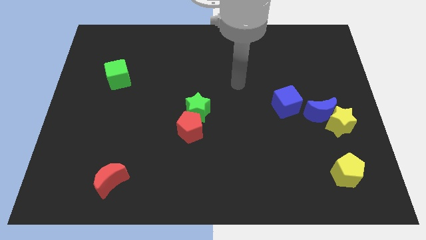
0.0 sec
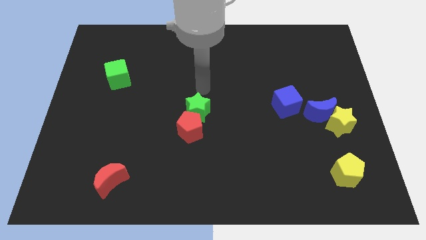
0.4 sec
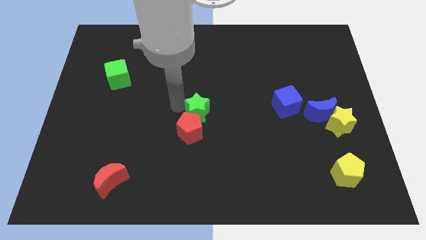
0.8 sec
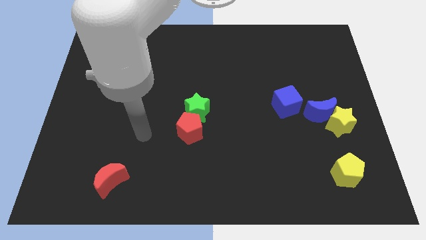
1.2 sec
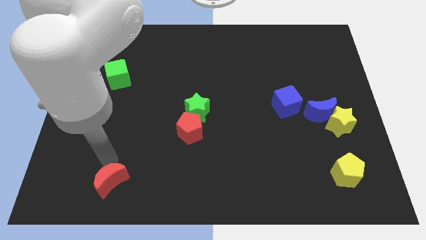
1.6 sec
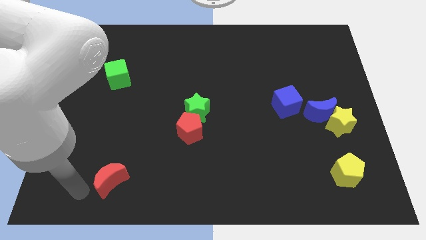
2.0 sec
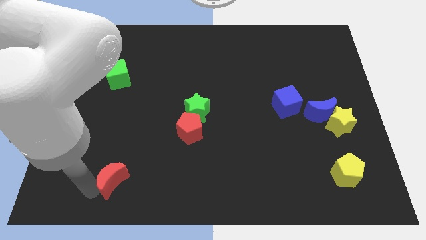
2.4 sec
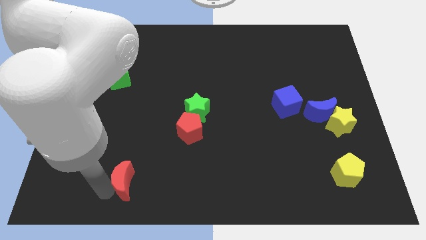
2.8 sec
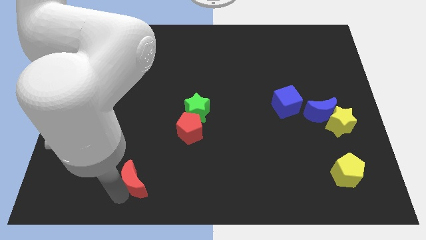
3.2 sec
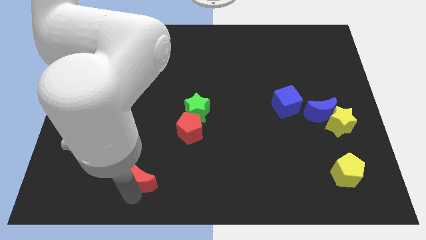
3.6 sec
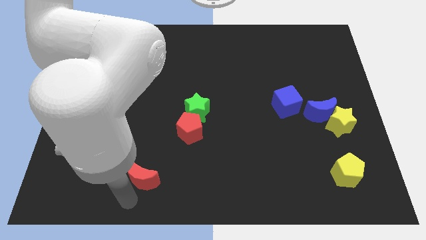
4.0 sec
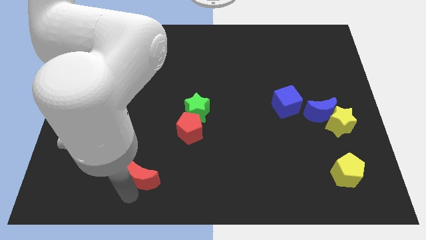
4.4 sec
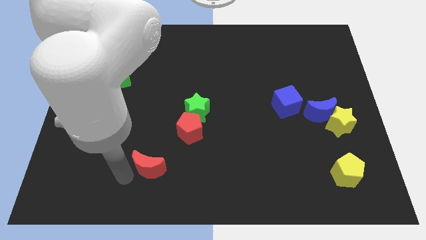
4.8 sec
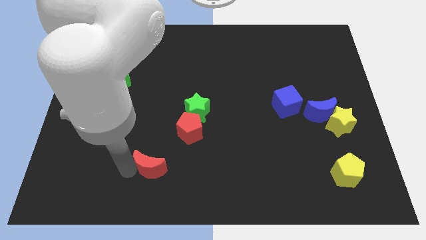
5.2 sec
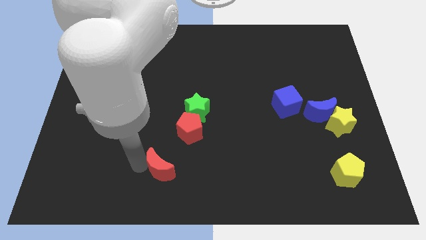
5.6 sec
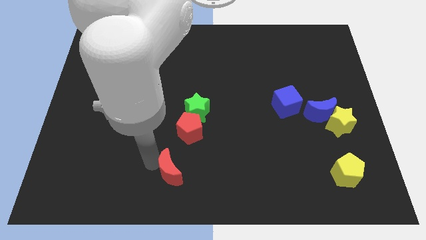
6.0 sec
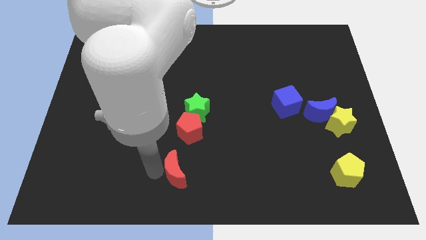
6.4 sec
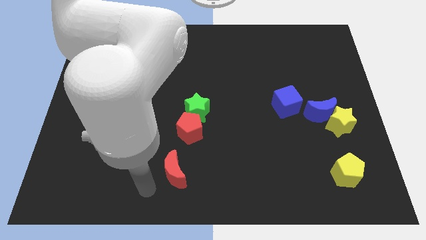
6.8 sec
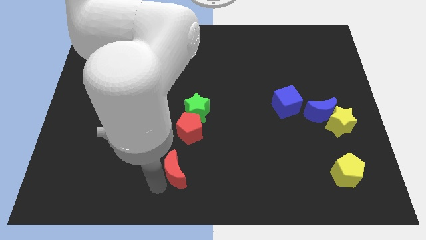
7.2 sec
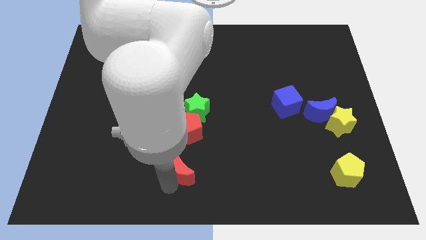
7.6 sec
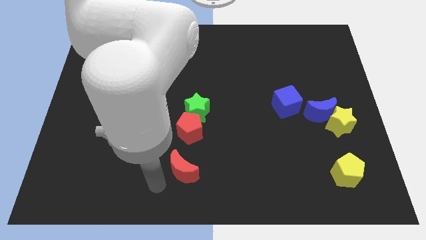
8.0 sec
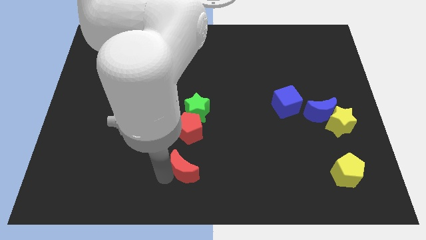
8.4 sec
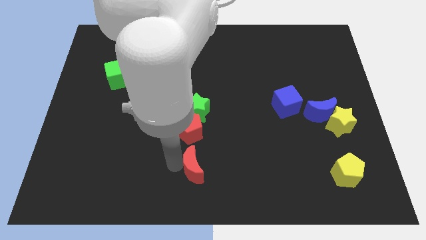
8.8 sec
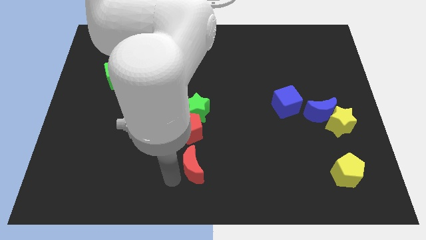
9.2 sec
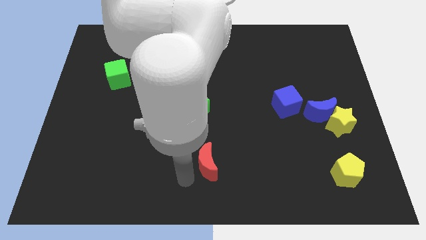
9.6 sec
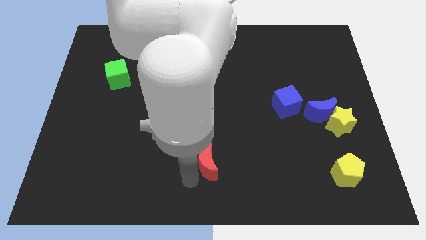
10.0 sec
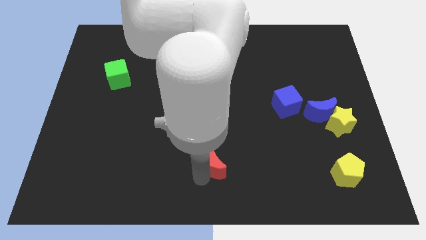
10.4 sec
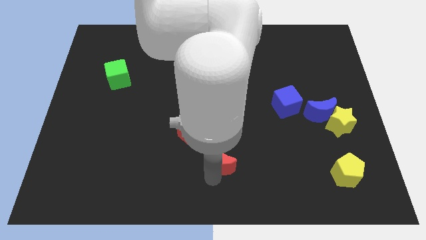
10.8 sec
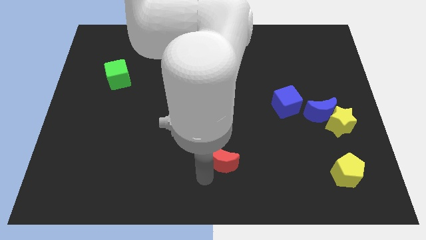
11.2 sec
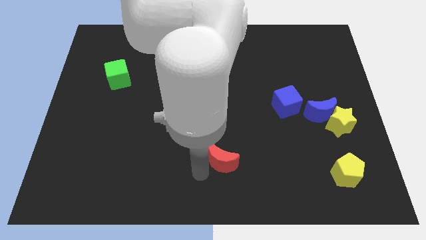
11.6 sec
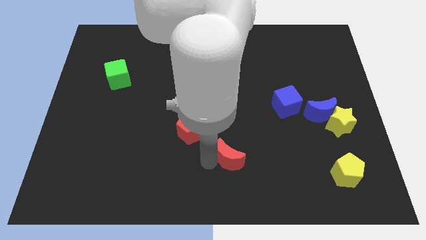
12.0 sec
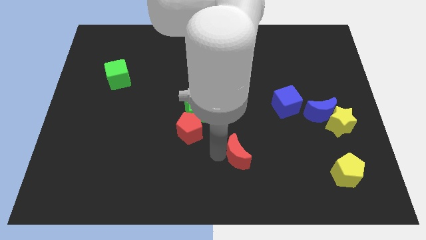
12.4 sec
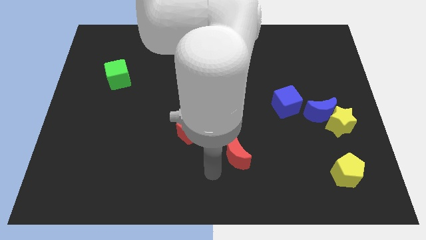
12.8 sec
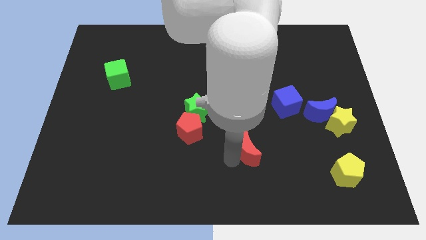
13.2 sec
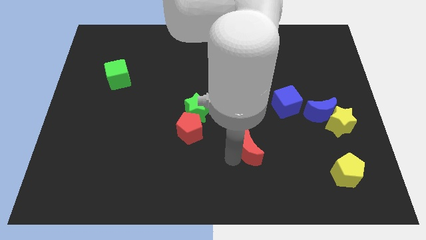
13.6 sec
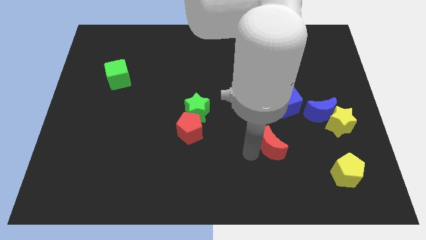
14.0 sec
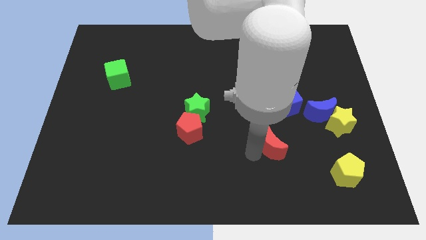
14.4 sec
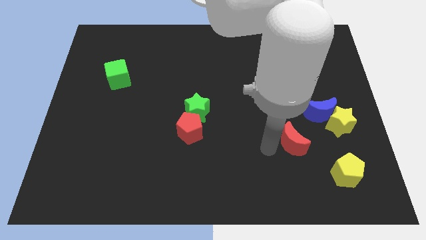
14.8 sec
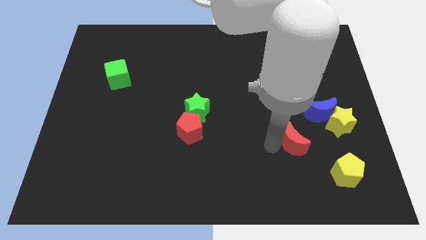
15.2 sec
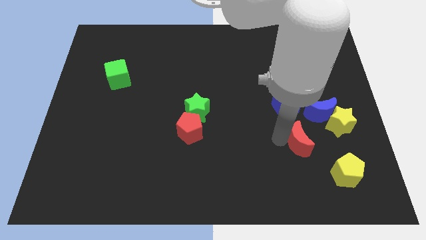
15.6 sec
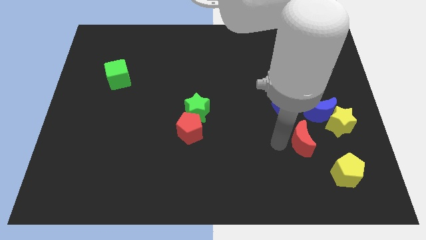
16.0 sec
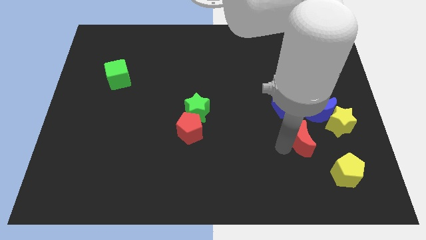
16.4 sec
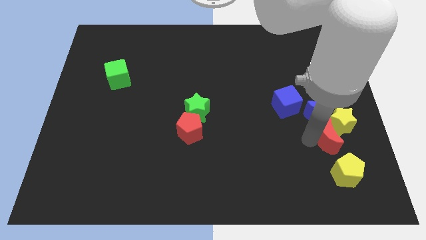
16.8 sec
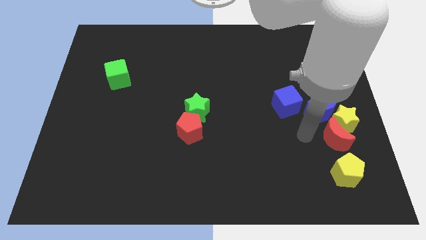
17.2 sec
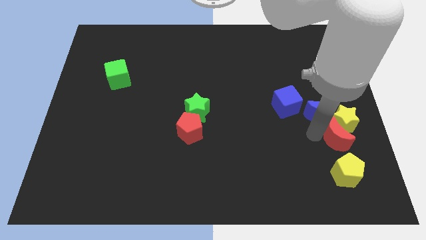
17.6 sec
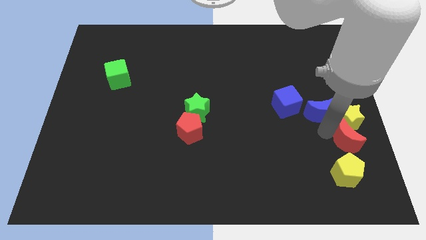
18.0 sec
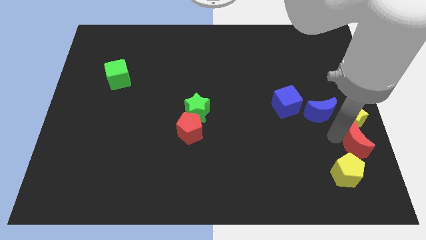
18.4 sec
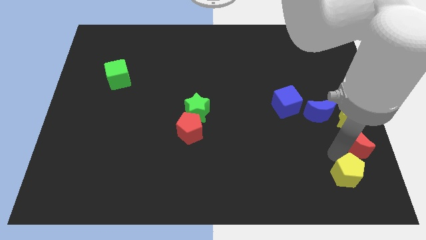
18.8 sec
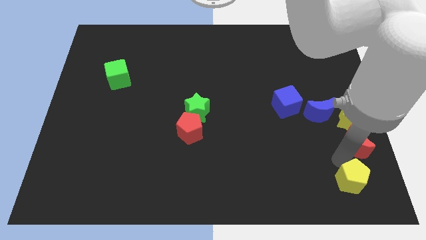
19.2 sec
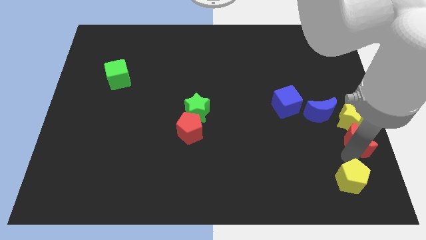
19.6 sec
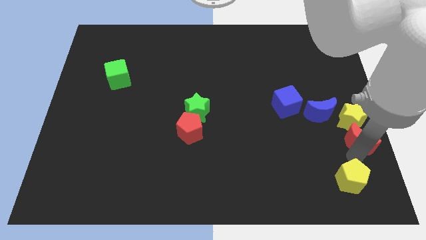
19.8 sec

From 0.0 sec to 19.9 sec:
put the red moon to the center right

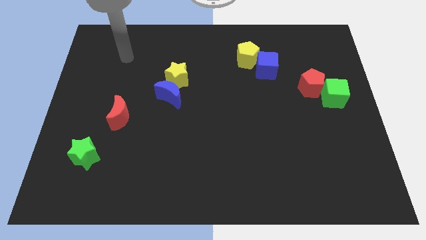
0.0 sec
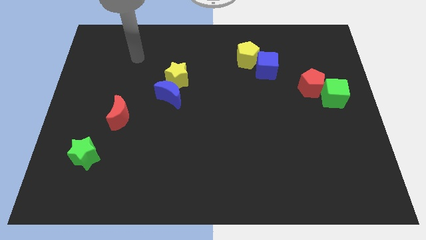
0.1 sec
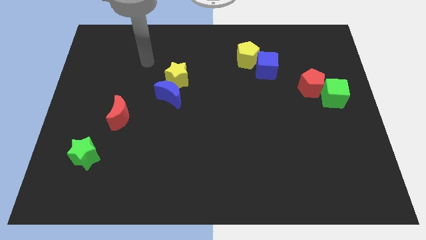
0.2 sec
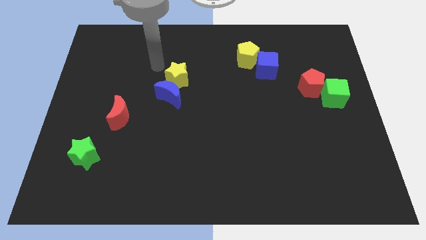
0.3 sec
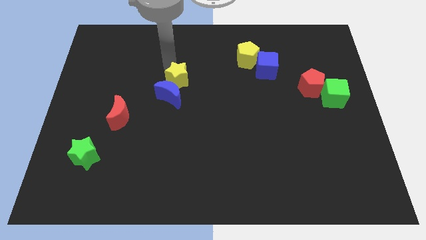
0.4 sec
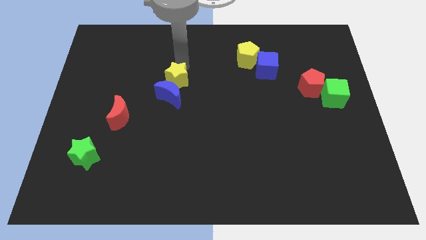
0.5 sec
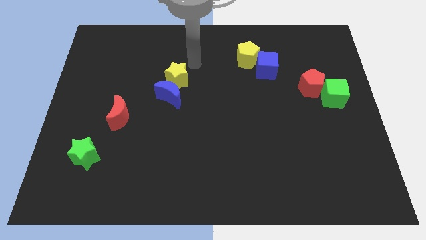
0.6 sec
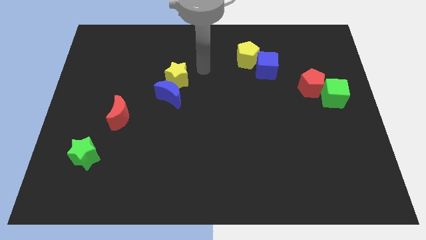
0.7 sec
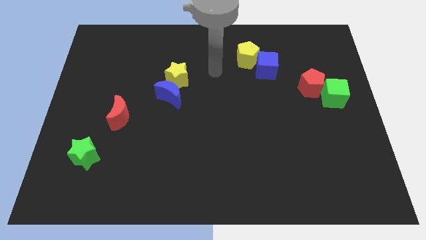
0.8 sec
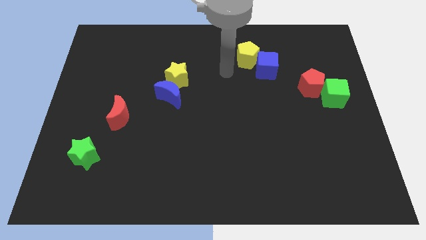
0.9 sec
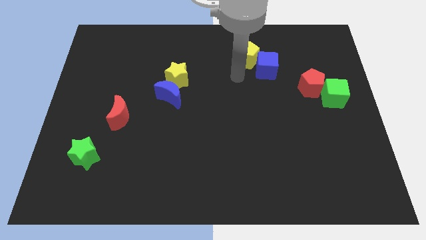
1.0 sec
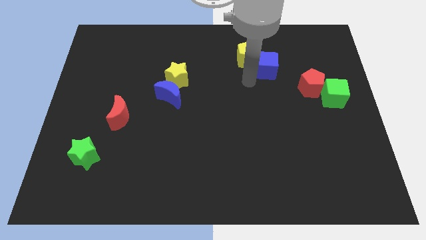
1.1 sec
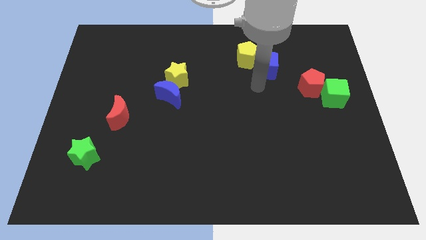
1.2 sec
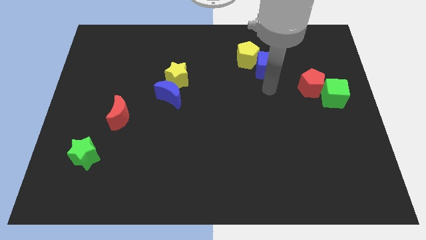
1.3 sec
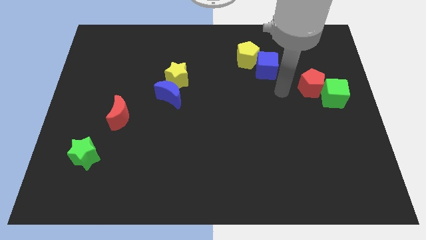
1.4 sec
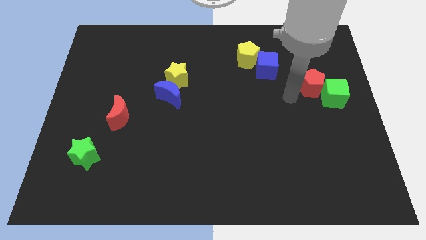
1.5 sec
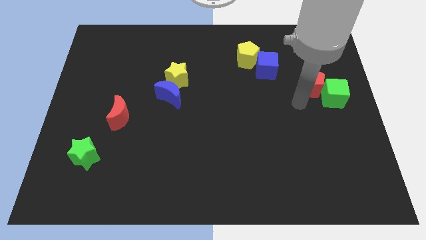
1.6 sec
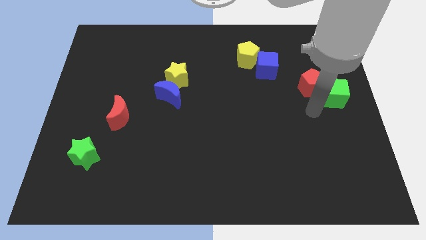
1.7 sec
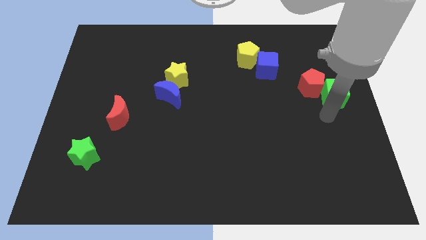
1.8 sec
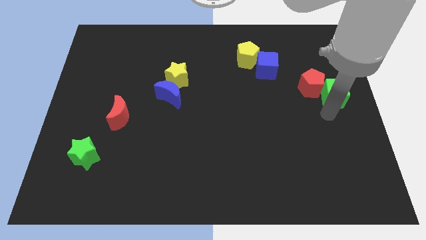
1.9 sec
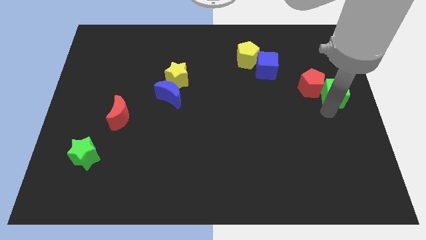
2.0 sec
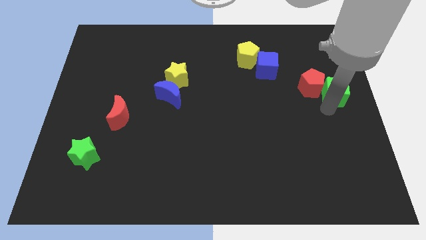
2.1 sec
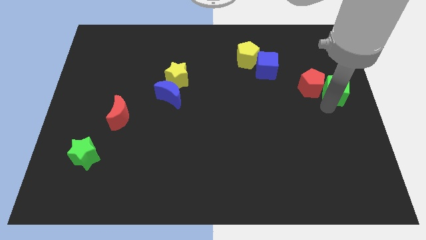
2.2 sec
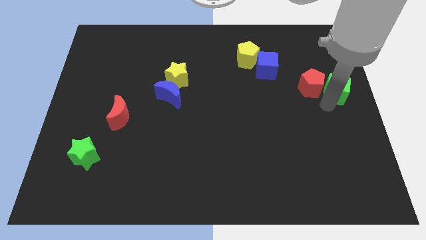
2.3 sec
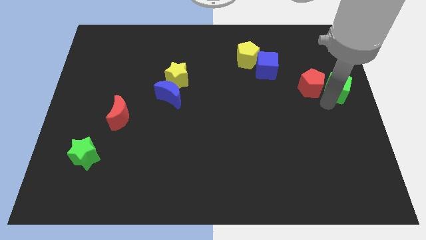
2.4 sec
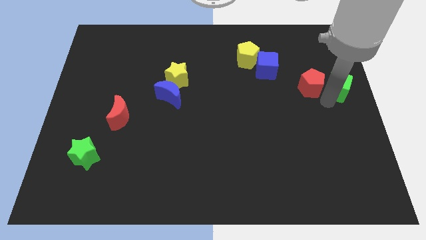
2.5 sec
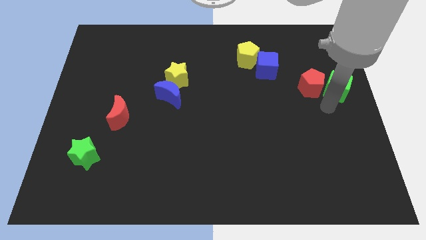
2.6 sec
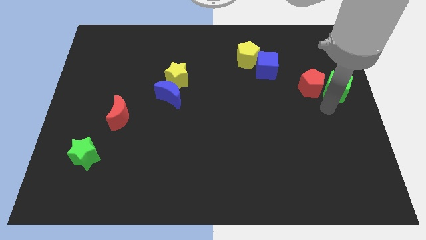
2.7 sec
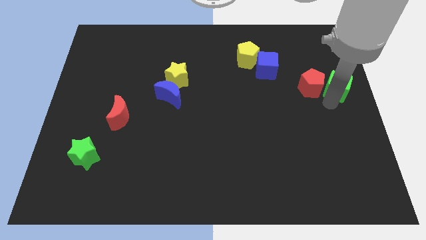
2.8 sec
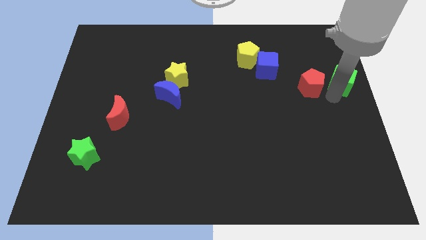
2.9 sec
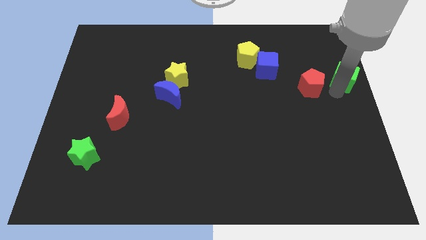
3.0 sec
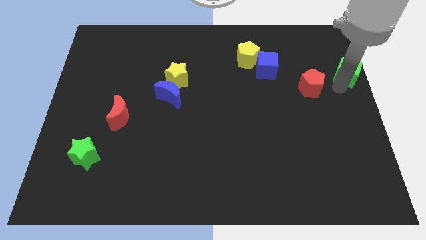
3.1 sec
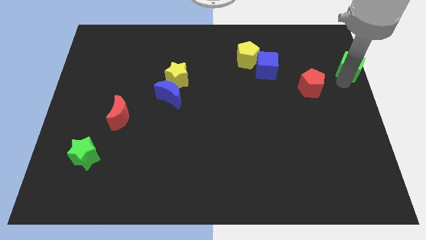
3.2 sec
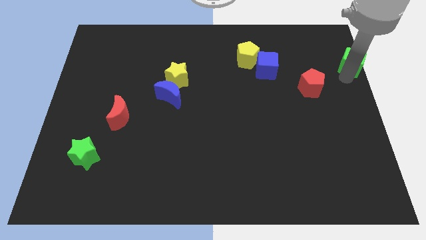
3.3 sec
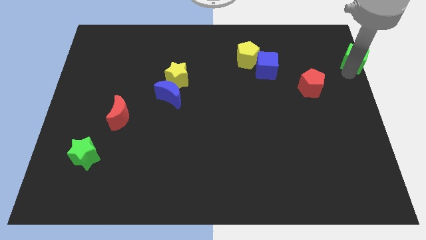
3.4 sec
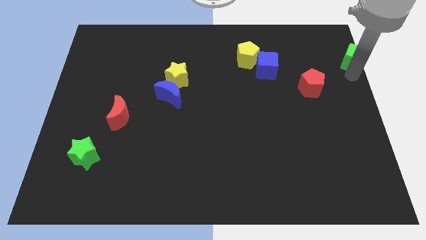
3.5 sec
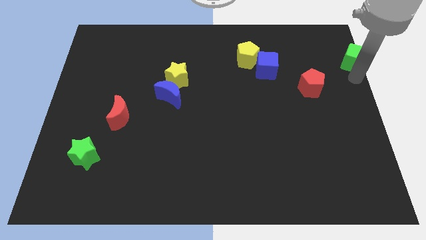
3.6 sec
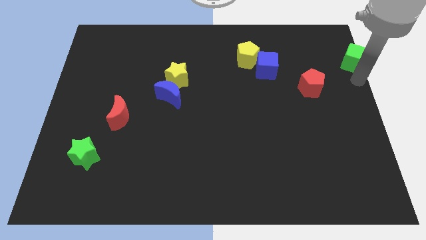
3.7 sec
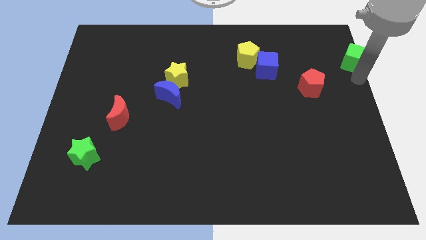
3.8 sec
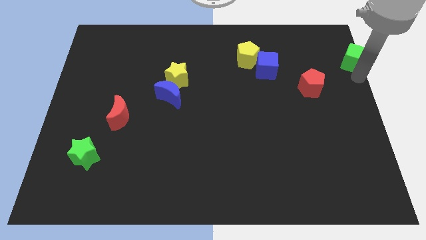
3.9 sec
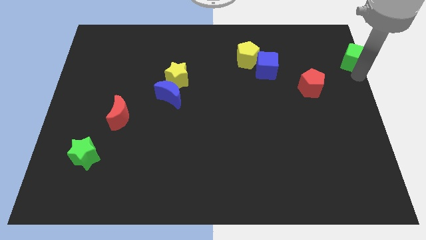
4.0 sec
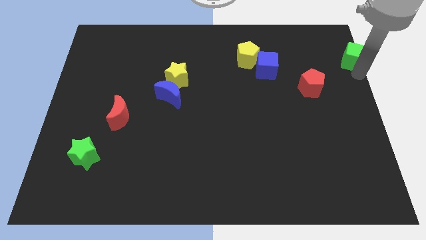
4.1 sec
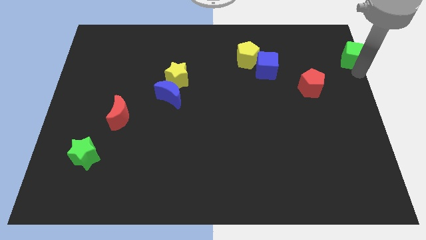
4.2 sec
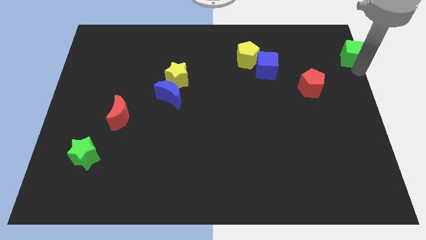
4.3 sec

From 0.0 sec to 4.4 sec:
slide the green cube to the top right
